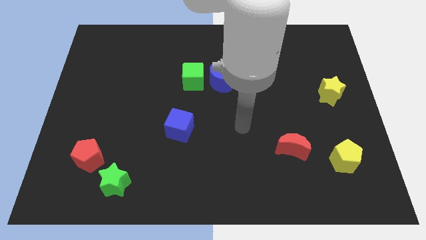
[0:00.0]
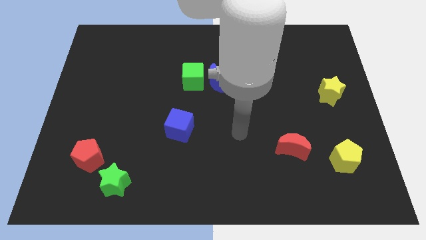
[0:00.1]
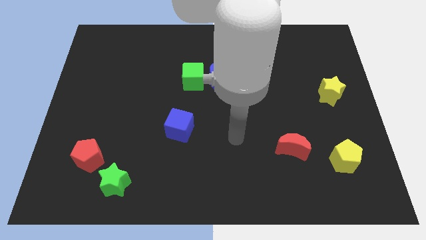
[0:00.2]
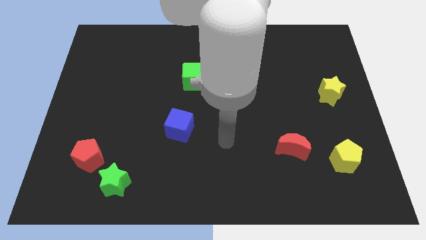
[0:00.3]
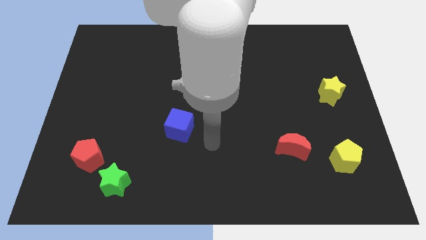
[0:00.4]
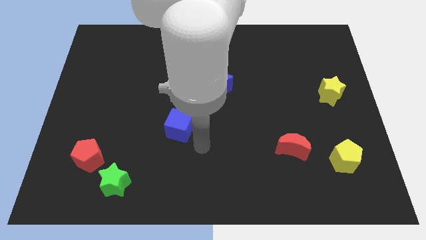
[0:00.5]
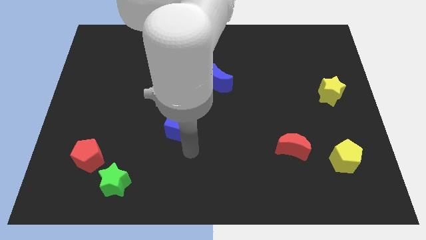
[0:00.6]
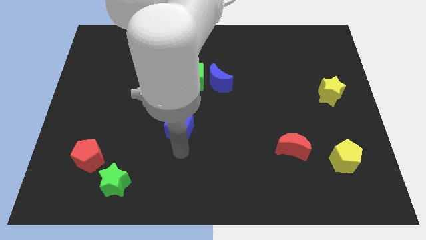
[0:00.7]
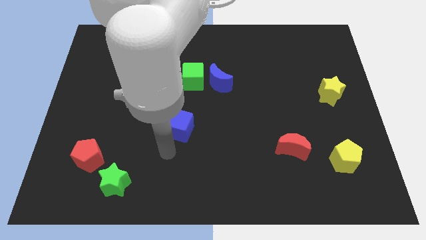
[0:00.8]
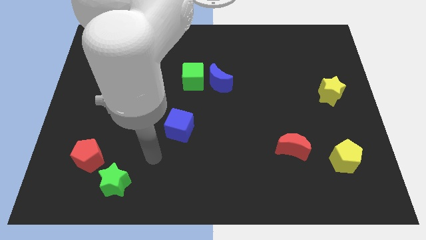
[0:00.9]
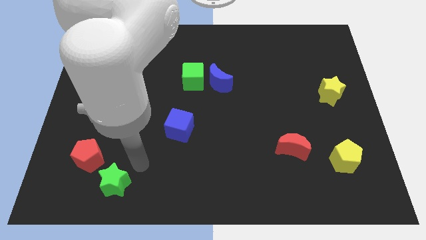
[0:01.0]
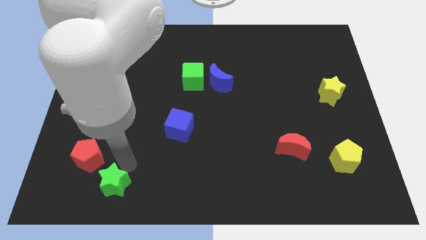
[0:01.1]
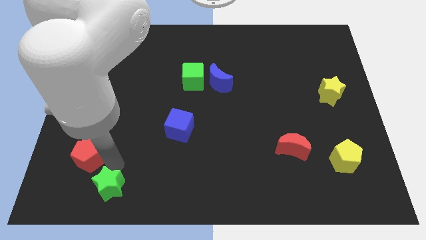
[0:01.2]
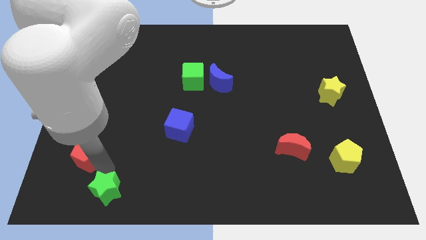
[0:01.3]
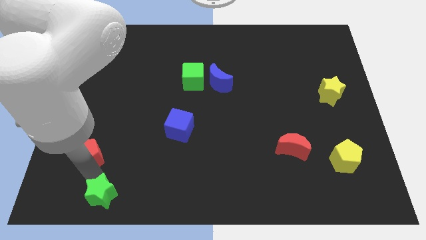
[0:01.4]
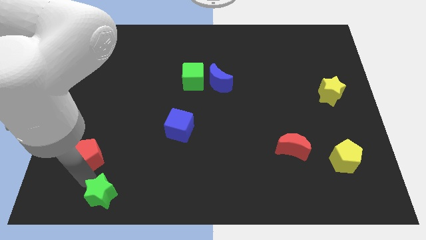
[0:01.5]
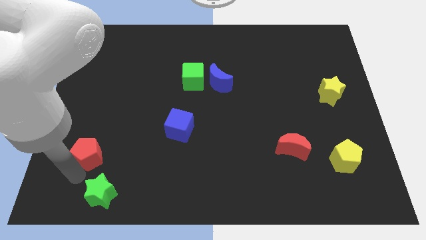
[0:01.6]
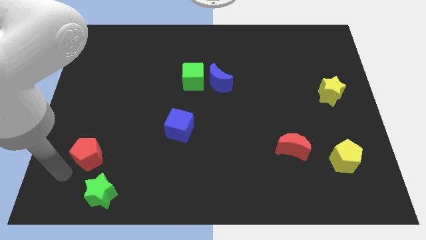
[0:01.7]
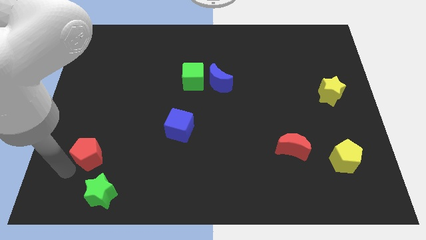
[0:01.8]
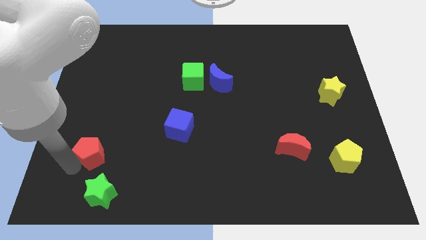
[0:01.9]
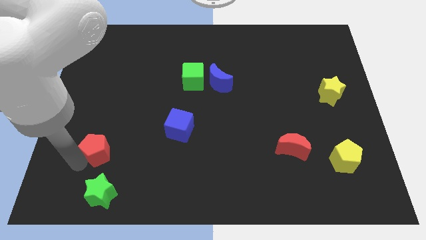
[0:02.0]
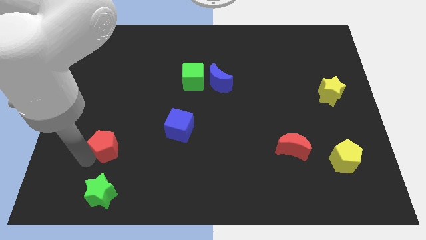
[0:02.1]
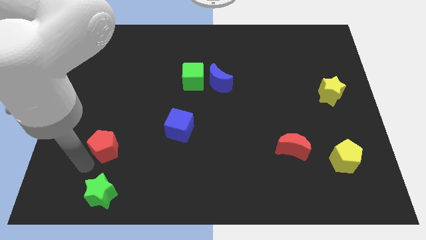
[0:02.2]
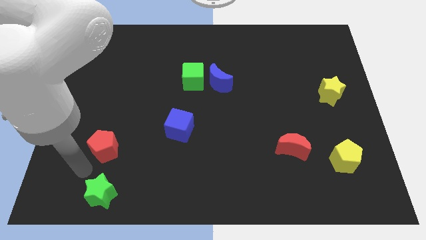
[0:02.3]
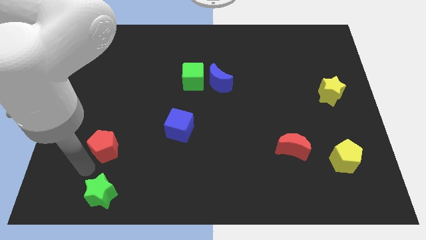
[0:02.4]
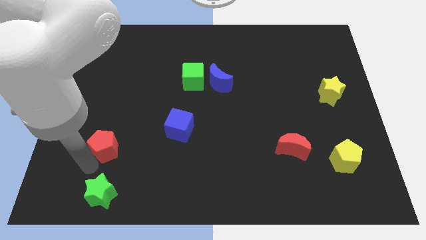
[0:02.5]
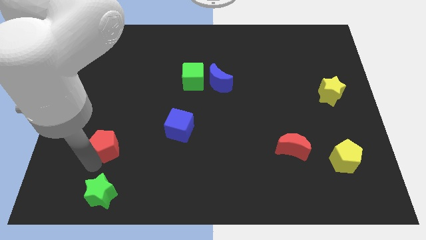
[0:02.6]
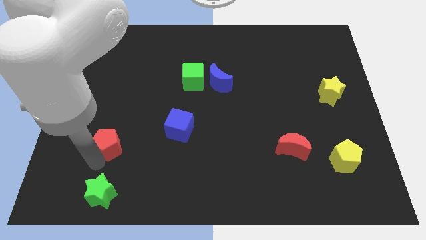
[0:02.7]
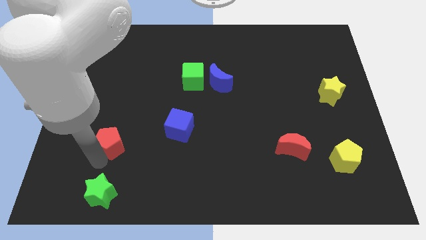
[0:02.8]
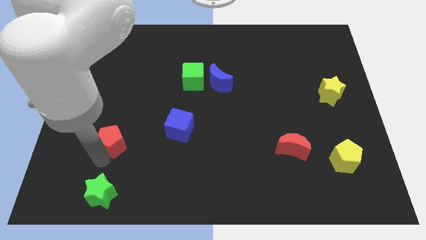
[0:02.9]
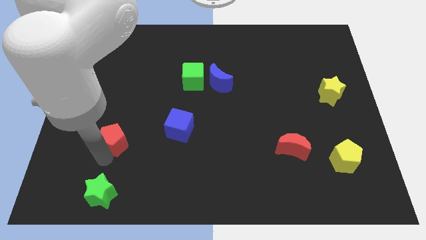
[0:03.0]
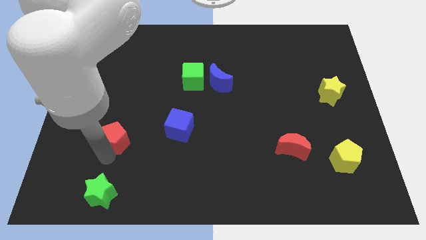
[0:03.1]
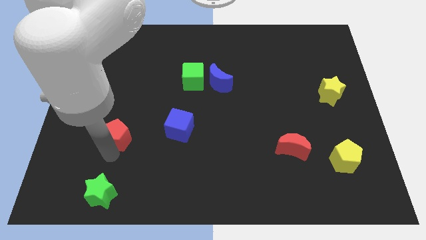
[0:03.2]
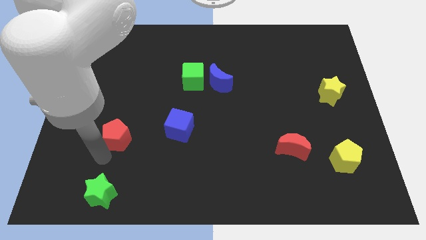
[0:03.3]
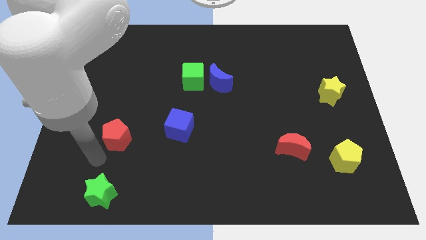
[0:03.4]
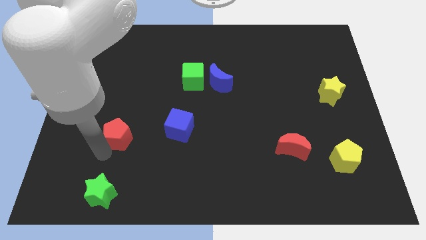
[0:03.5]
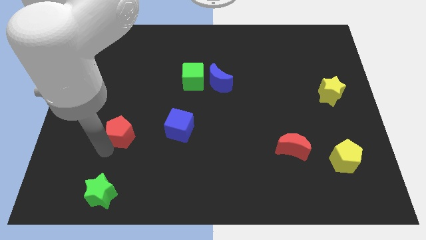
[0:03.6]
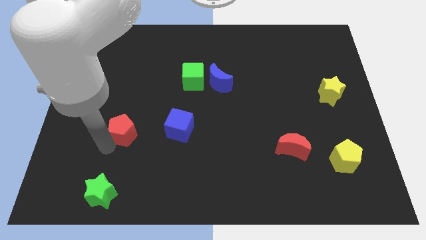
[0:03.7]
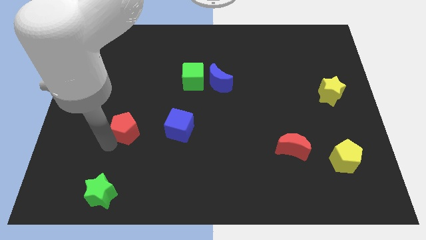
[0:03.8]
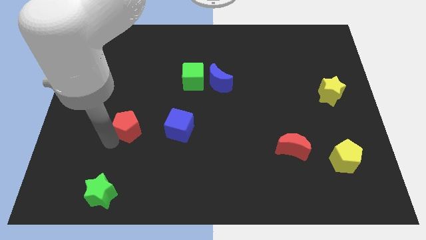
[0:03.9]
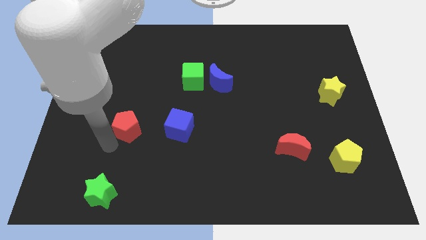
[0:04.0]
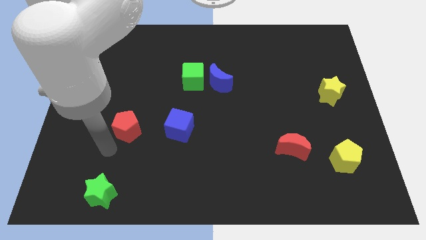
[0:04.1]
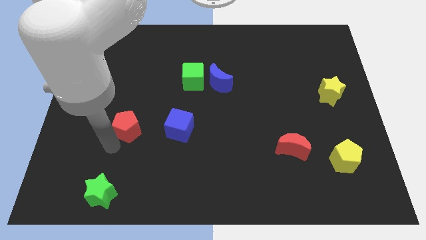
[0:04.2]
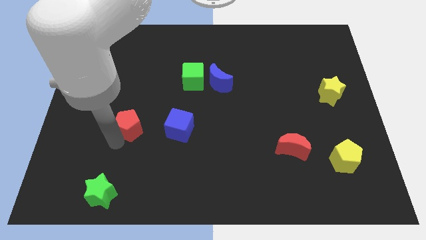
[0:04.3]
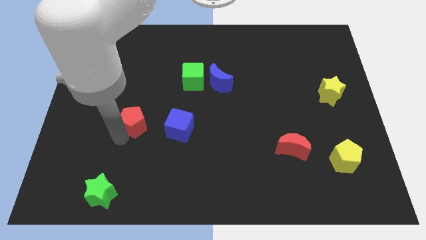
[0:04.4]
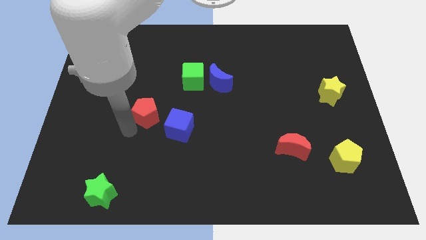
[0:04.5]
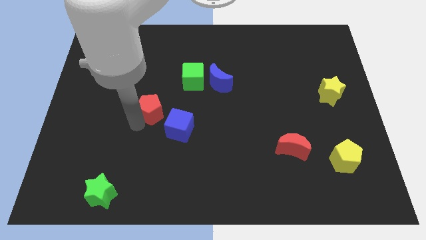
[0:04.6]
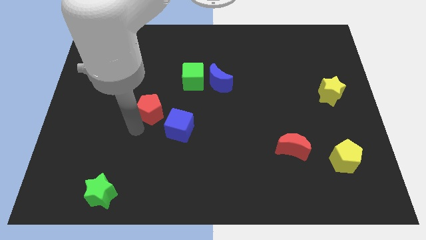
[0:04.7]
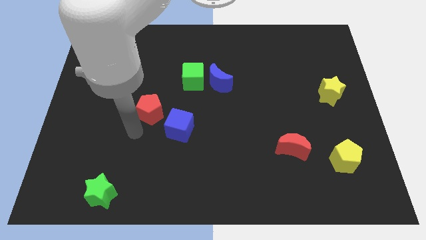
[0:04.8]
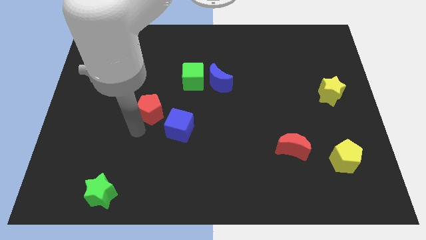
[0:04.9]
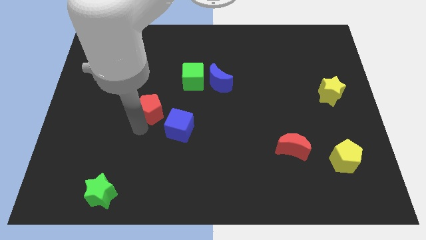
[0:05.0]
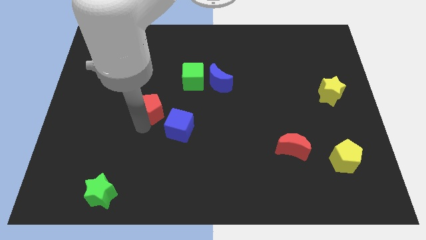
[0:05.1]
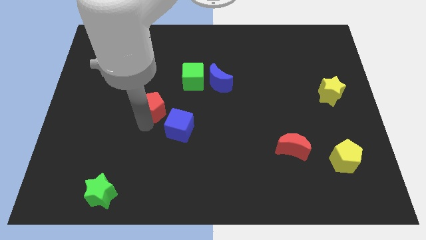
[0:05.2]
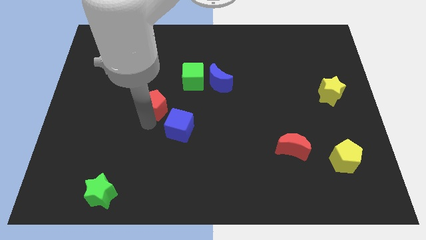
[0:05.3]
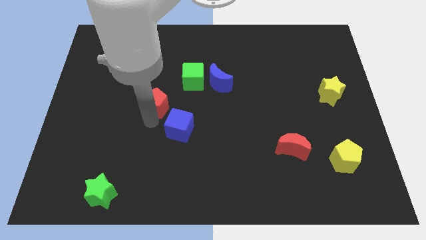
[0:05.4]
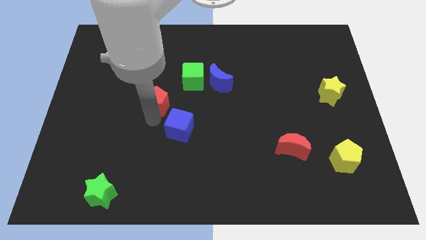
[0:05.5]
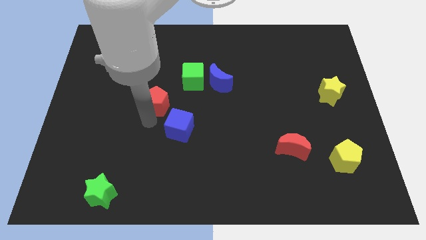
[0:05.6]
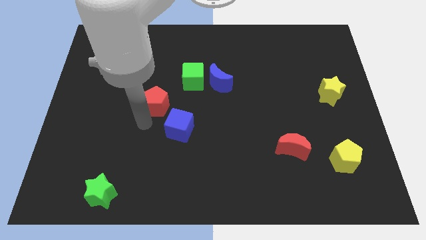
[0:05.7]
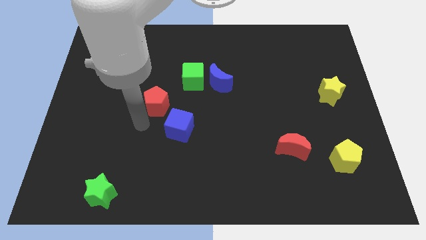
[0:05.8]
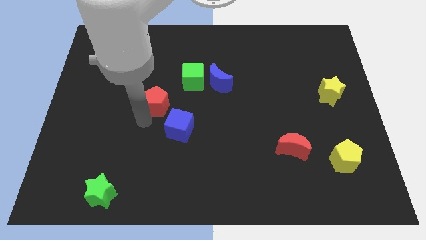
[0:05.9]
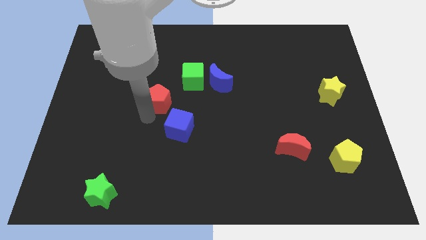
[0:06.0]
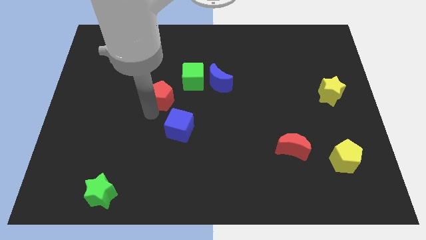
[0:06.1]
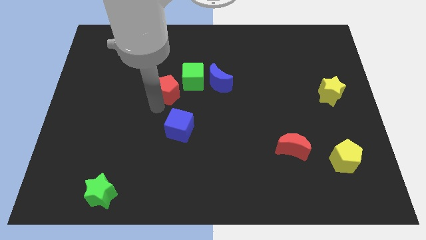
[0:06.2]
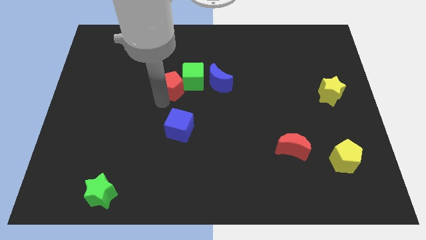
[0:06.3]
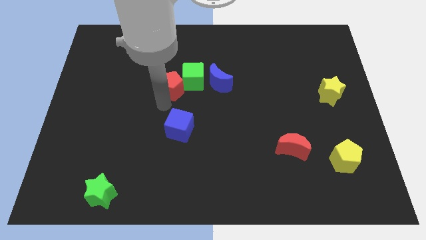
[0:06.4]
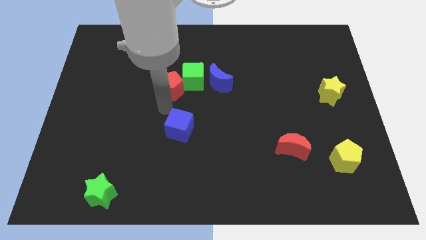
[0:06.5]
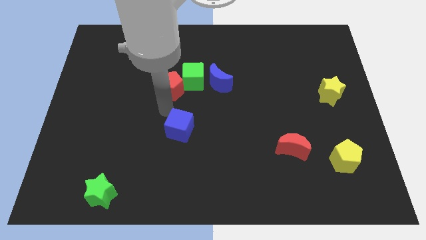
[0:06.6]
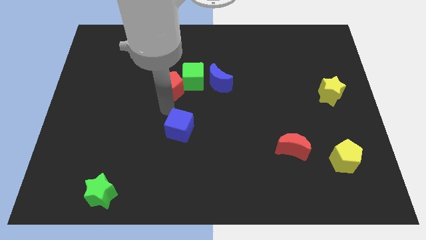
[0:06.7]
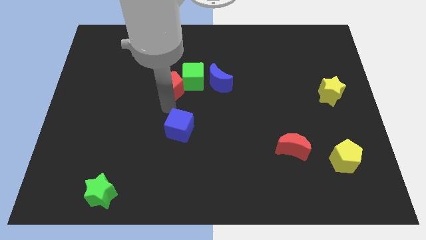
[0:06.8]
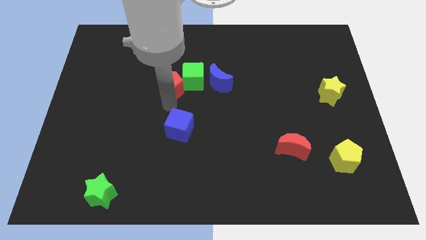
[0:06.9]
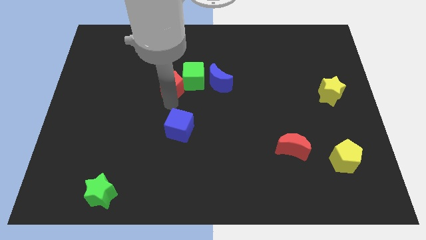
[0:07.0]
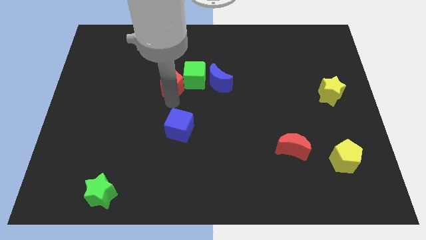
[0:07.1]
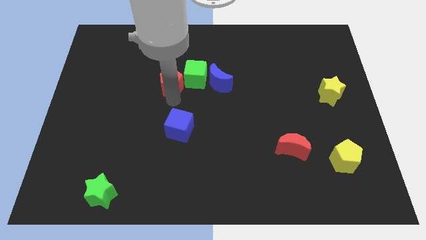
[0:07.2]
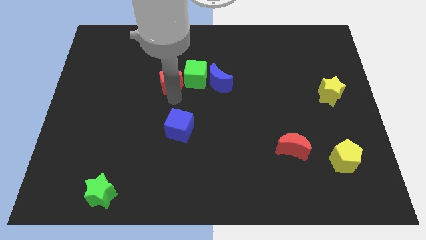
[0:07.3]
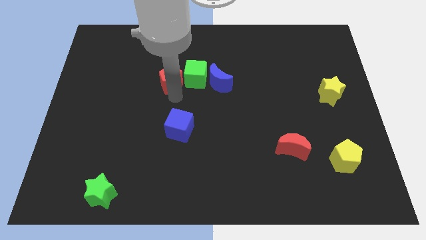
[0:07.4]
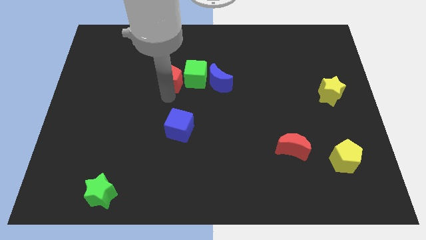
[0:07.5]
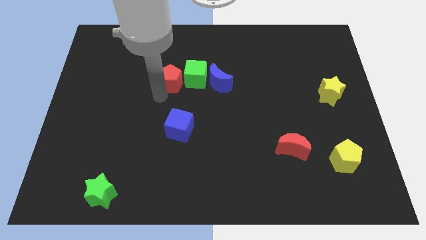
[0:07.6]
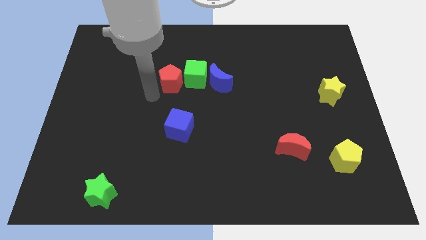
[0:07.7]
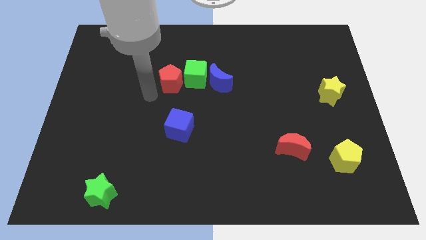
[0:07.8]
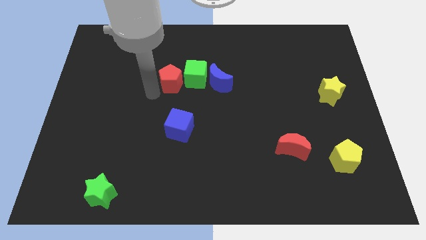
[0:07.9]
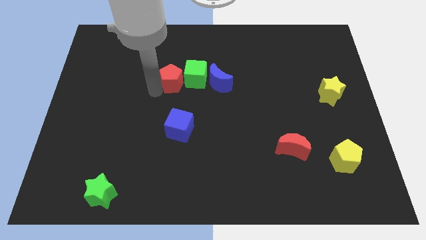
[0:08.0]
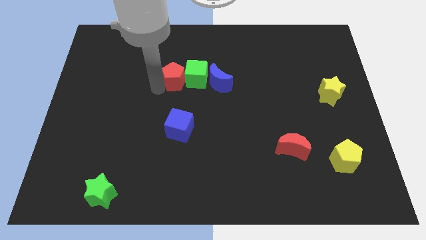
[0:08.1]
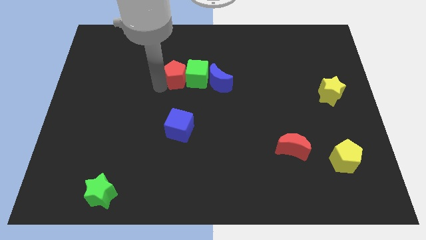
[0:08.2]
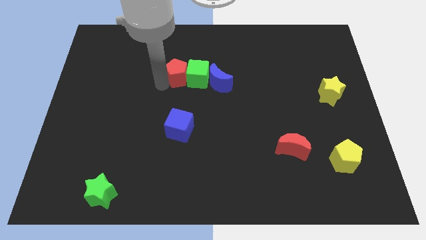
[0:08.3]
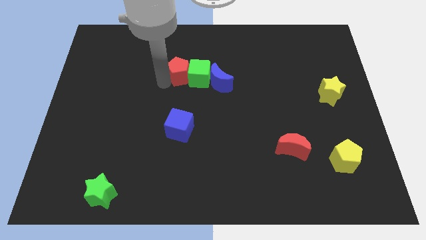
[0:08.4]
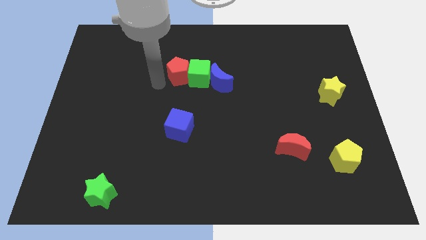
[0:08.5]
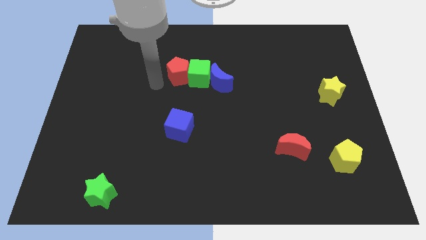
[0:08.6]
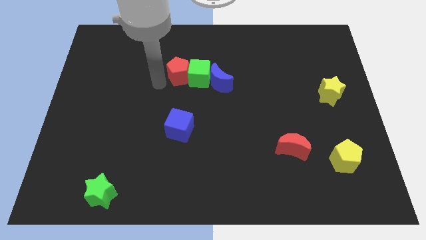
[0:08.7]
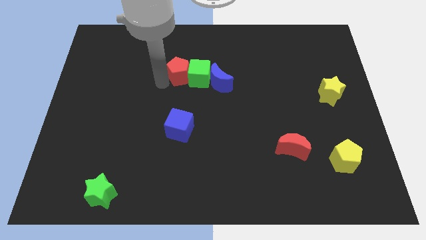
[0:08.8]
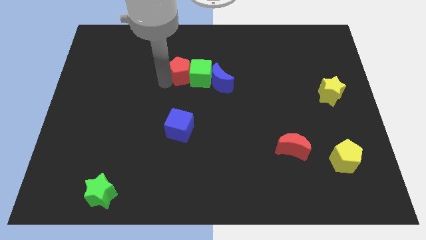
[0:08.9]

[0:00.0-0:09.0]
slide the red pentagon diagonally up and to the left of the blue moon
